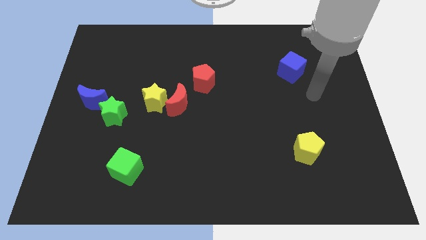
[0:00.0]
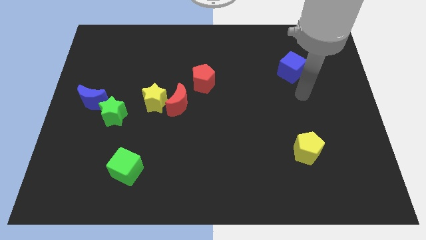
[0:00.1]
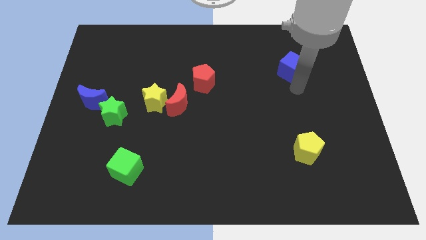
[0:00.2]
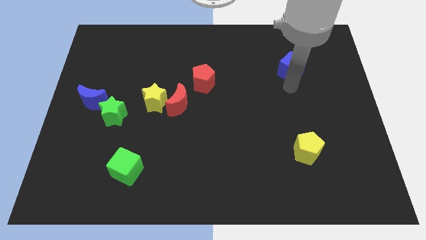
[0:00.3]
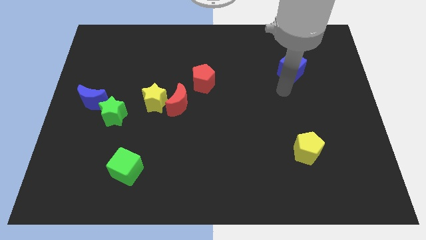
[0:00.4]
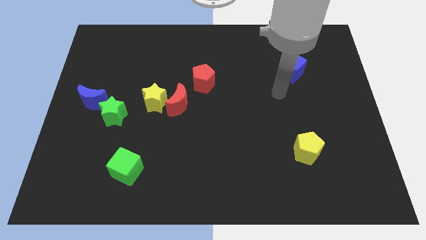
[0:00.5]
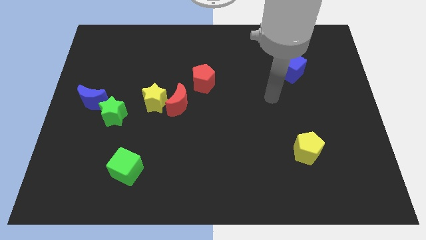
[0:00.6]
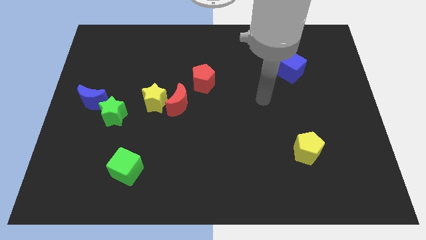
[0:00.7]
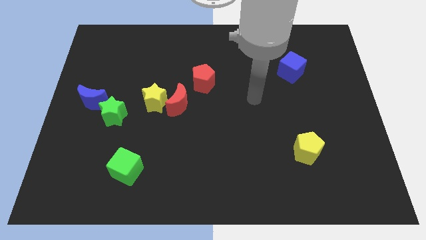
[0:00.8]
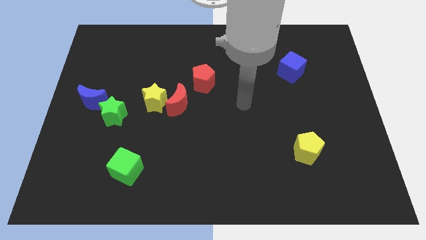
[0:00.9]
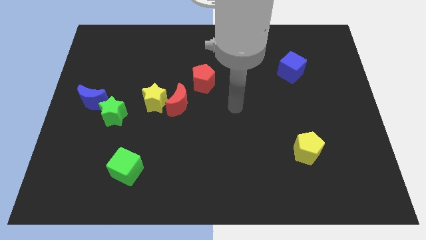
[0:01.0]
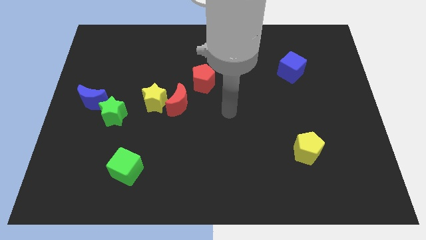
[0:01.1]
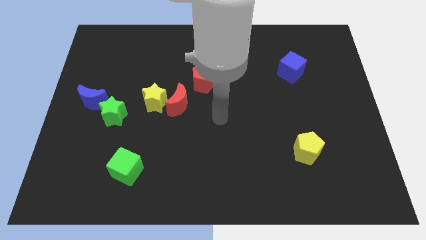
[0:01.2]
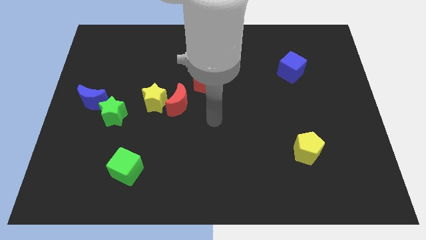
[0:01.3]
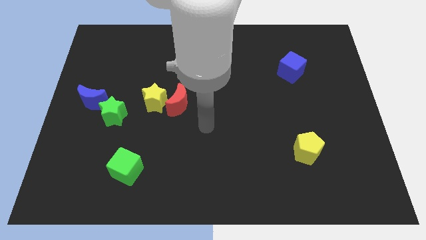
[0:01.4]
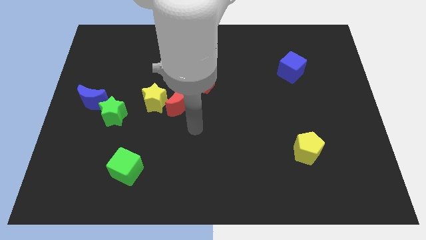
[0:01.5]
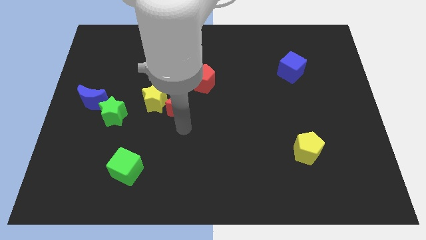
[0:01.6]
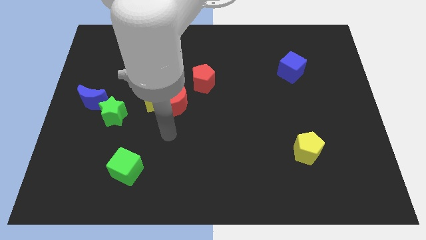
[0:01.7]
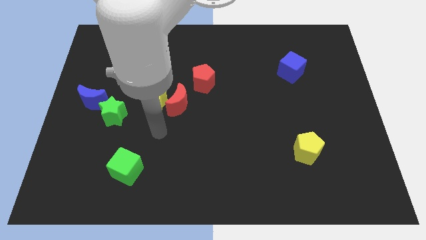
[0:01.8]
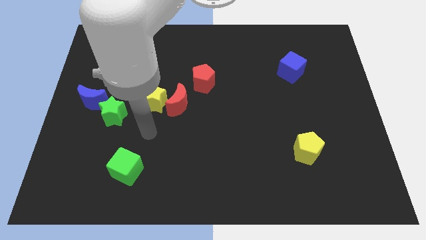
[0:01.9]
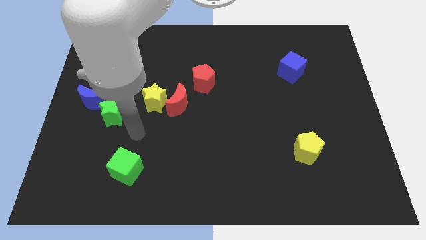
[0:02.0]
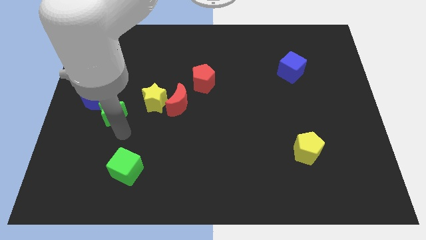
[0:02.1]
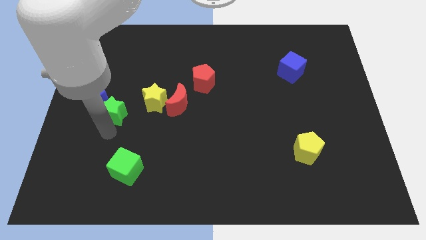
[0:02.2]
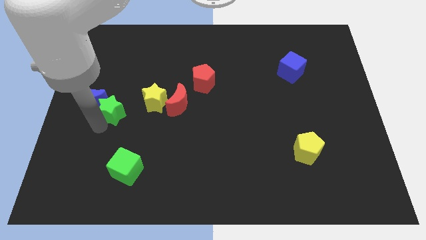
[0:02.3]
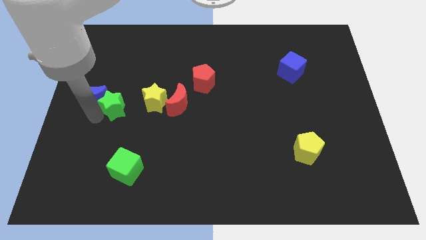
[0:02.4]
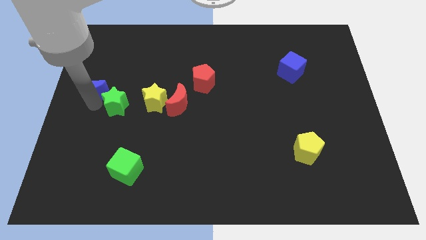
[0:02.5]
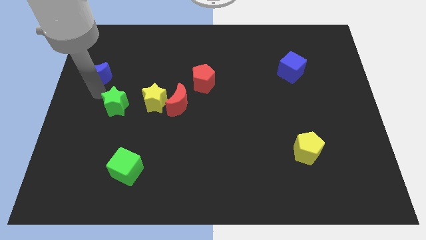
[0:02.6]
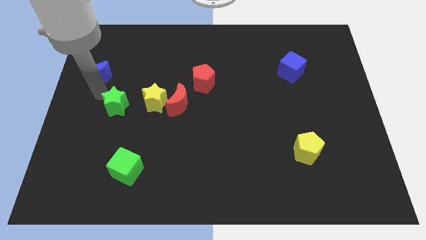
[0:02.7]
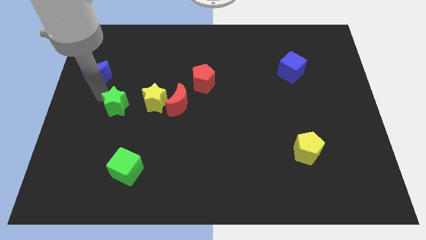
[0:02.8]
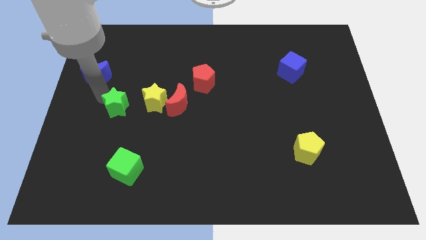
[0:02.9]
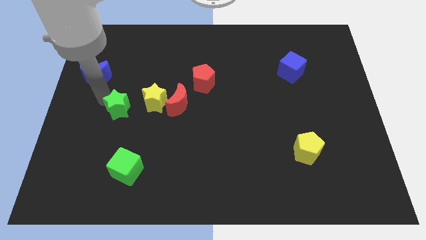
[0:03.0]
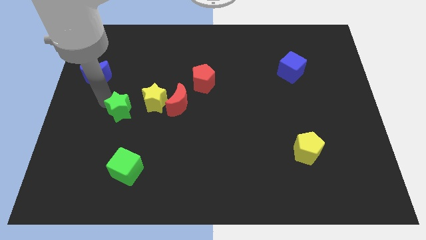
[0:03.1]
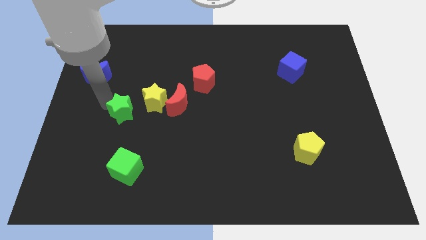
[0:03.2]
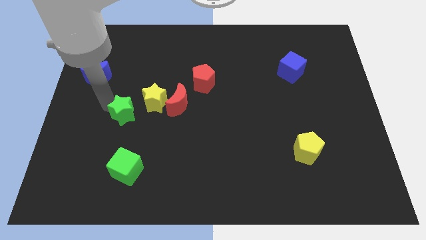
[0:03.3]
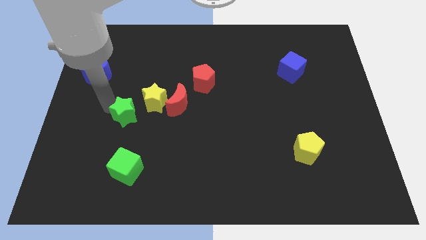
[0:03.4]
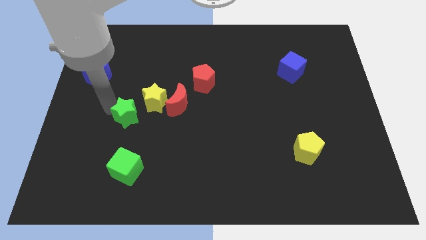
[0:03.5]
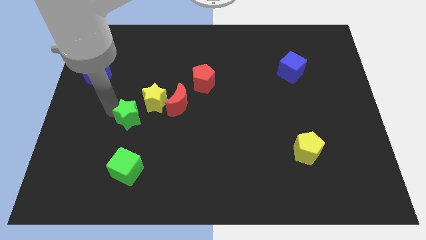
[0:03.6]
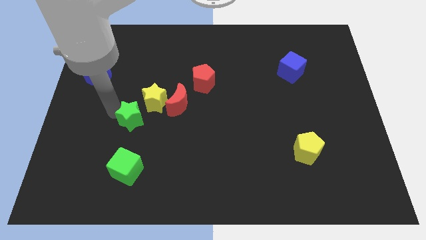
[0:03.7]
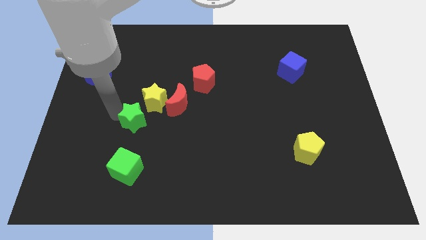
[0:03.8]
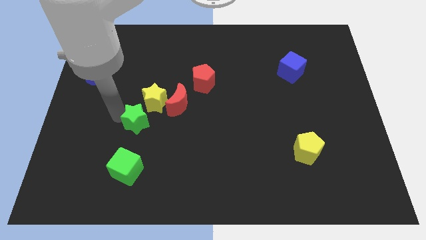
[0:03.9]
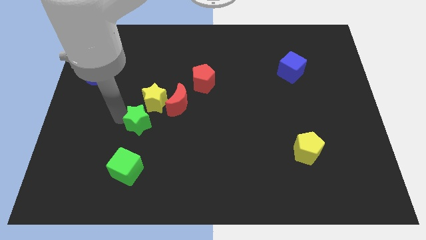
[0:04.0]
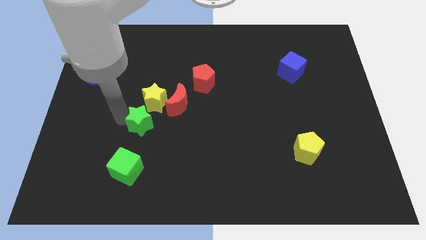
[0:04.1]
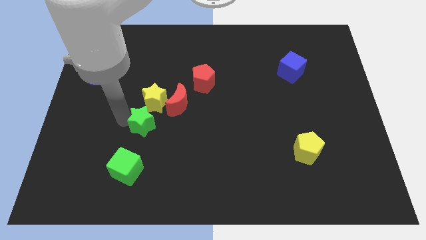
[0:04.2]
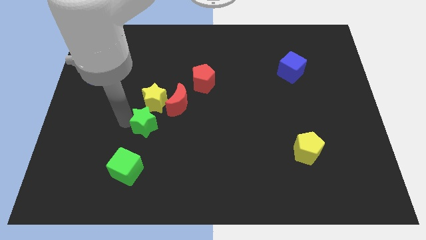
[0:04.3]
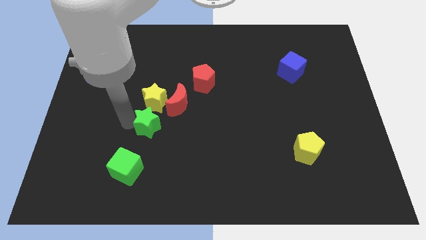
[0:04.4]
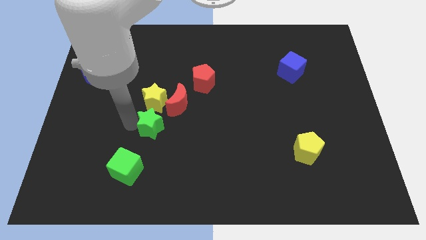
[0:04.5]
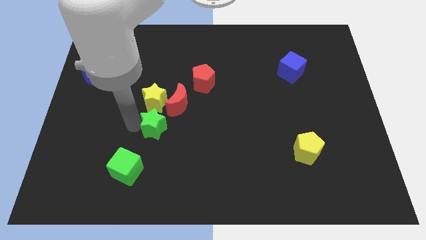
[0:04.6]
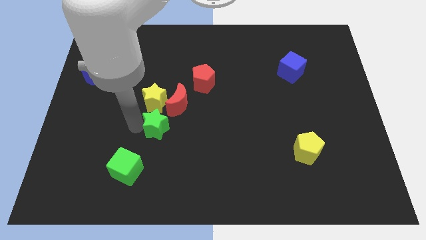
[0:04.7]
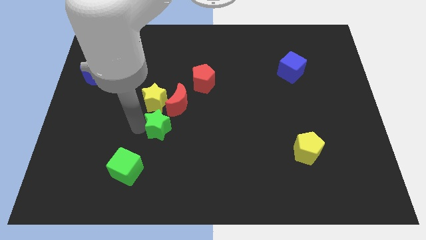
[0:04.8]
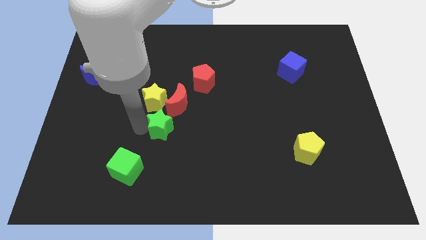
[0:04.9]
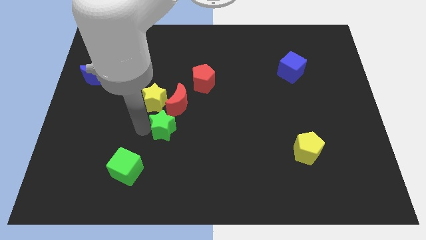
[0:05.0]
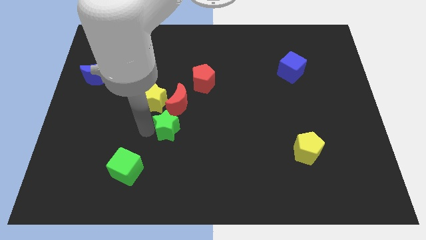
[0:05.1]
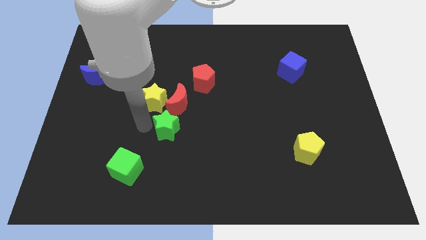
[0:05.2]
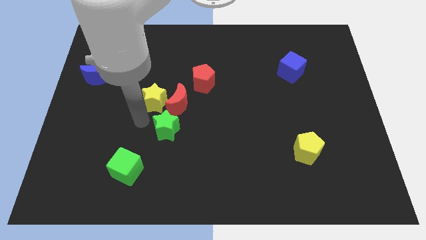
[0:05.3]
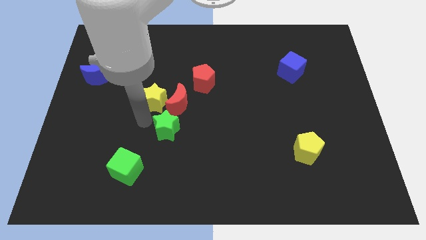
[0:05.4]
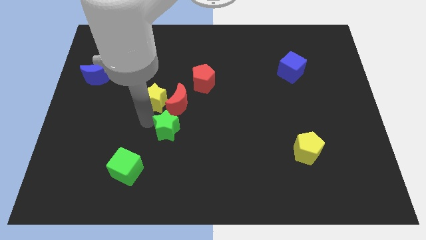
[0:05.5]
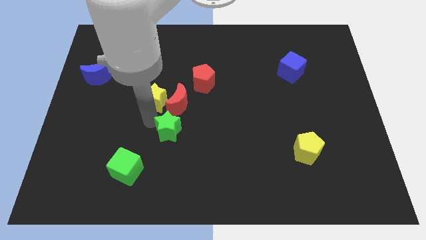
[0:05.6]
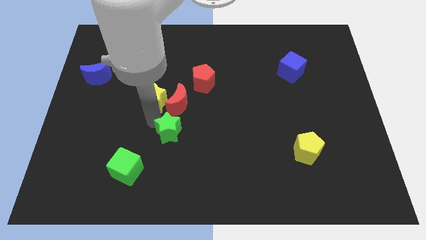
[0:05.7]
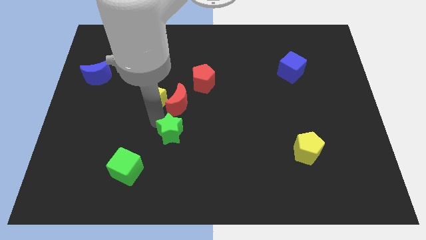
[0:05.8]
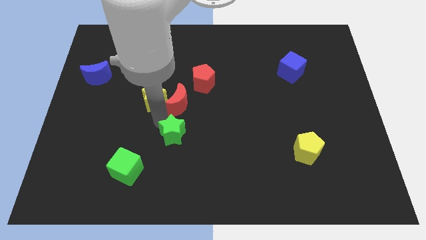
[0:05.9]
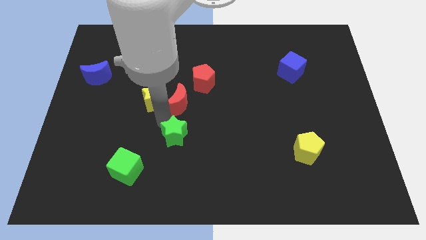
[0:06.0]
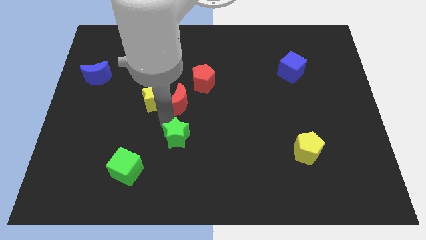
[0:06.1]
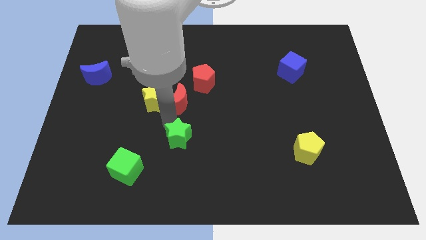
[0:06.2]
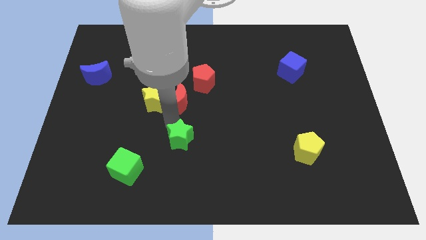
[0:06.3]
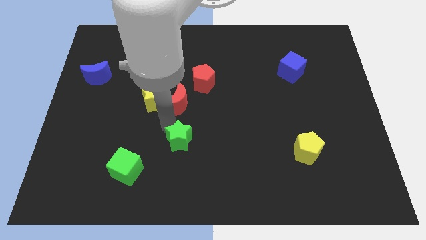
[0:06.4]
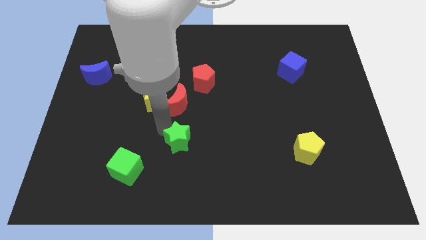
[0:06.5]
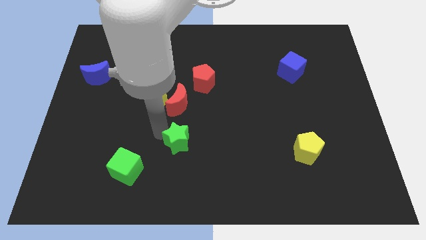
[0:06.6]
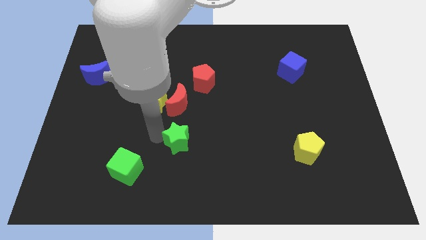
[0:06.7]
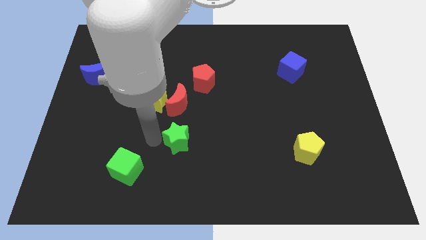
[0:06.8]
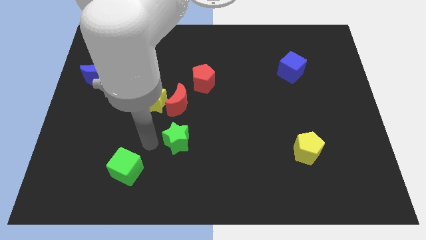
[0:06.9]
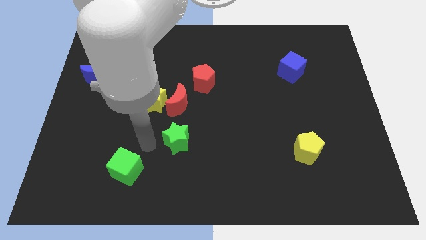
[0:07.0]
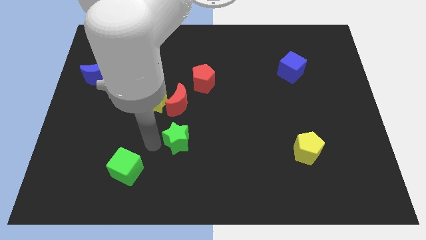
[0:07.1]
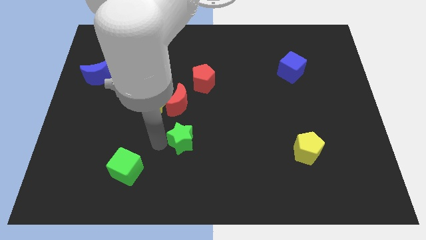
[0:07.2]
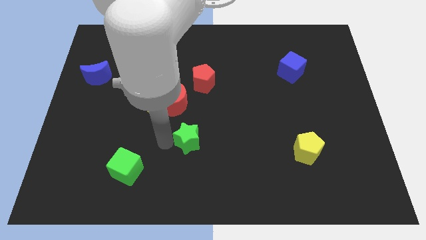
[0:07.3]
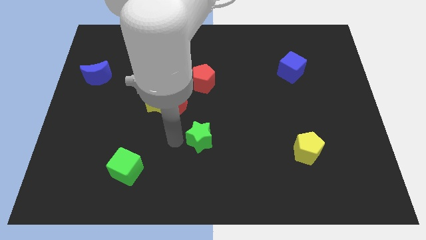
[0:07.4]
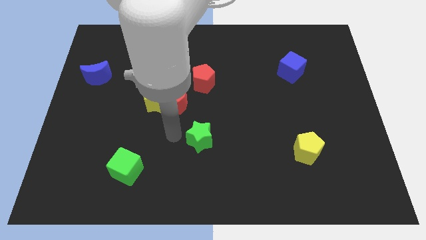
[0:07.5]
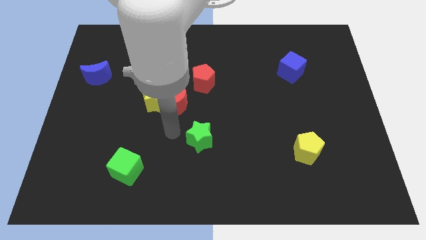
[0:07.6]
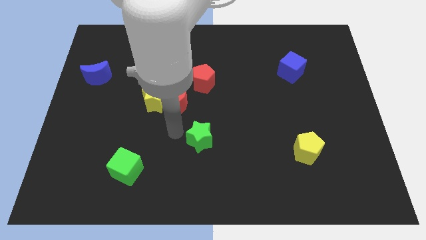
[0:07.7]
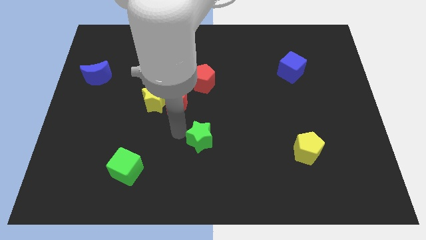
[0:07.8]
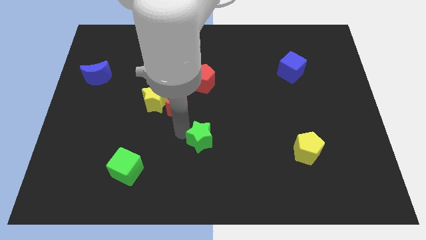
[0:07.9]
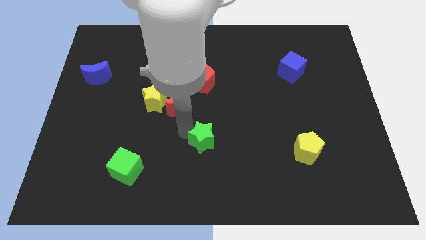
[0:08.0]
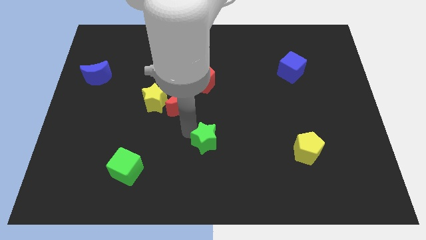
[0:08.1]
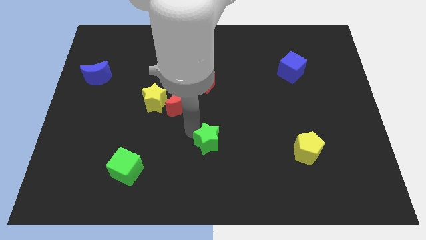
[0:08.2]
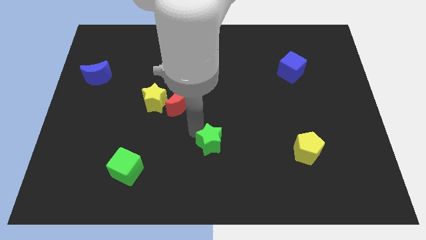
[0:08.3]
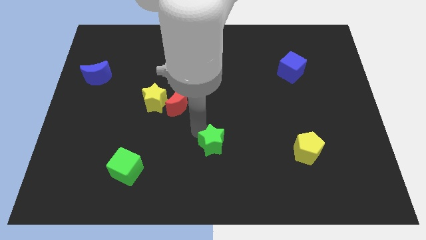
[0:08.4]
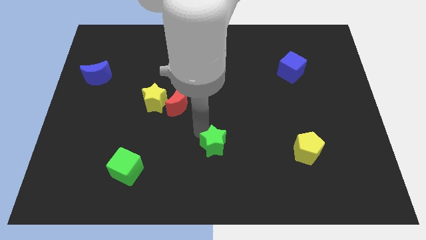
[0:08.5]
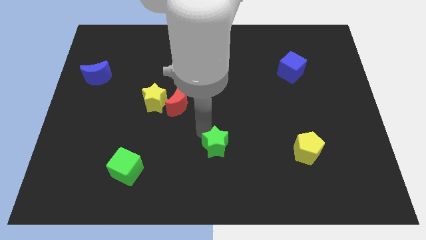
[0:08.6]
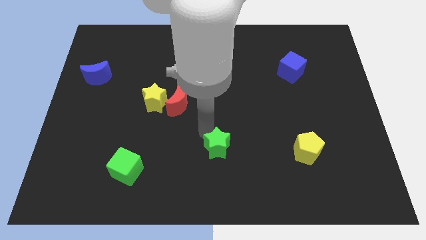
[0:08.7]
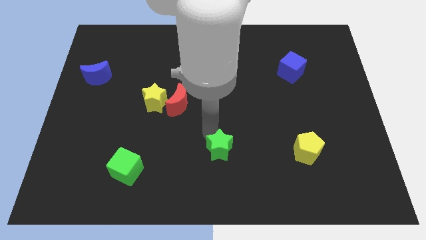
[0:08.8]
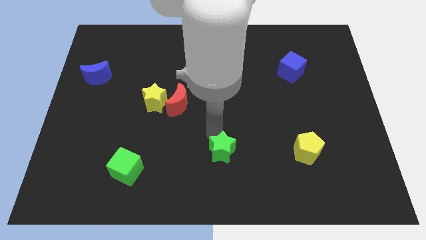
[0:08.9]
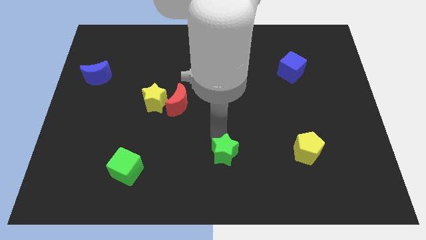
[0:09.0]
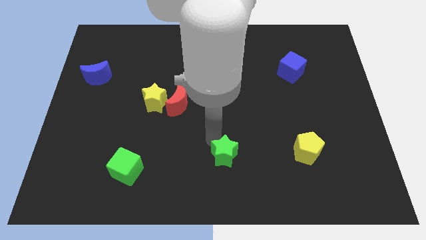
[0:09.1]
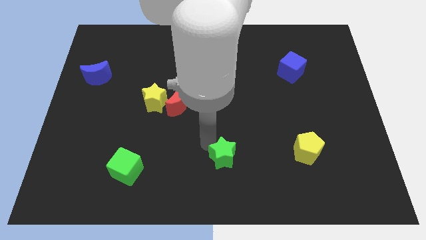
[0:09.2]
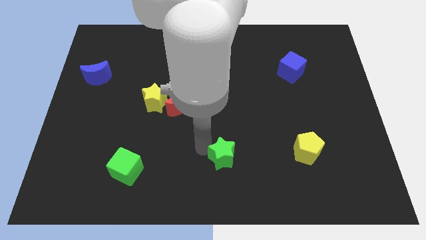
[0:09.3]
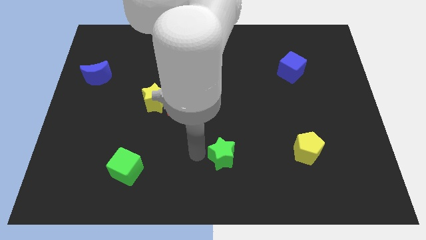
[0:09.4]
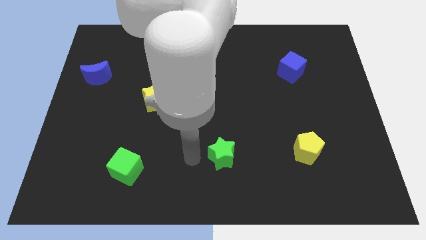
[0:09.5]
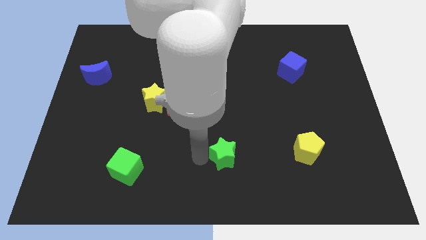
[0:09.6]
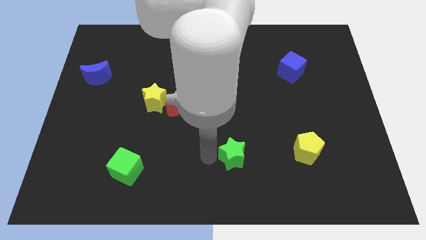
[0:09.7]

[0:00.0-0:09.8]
push the green star to the left of the yellow pentagon
